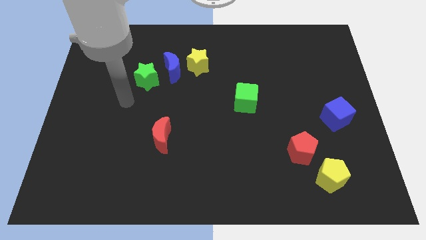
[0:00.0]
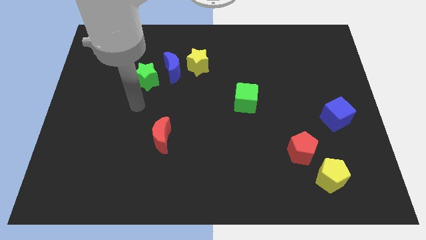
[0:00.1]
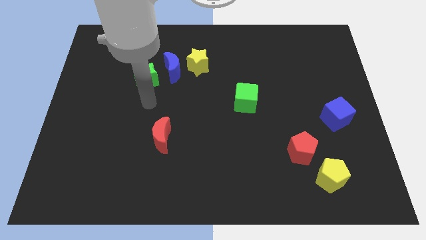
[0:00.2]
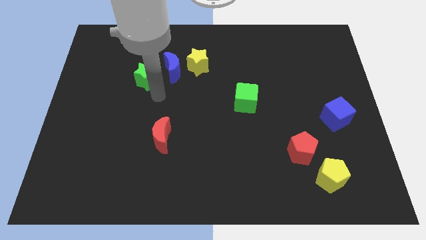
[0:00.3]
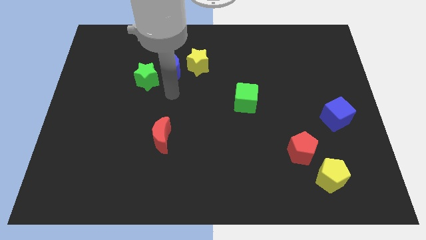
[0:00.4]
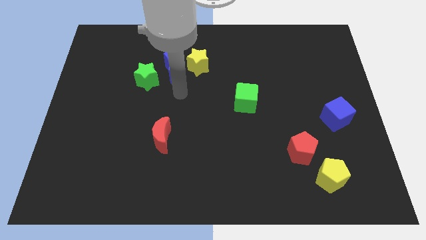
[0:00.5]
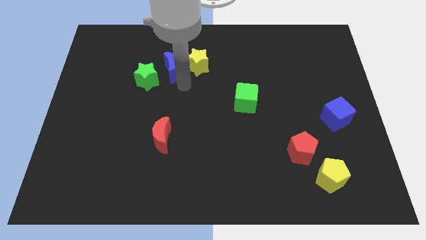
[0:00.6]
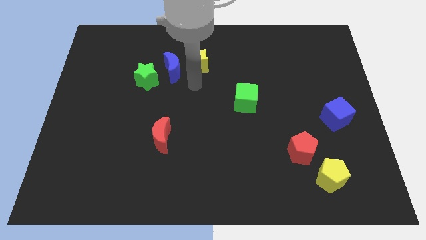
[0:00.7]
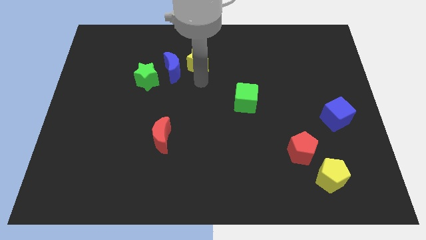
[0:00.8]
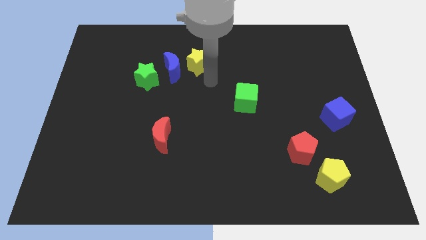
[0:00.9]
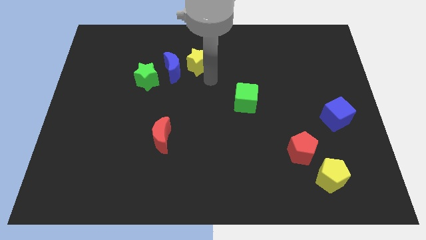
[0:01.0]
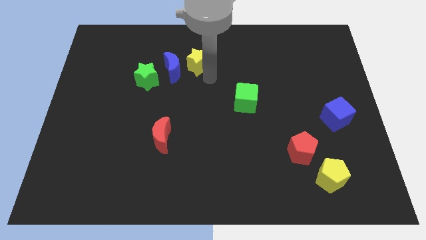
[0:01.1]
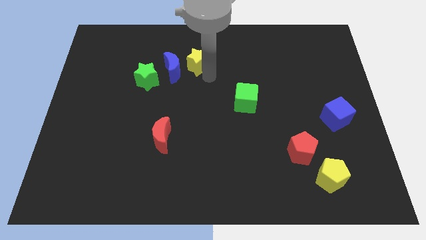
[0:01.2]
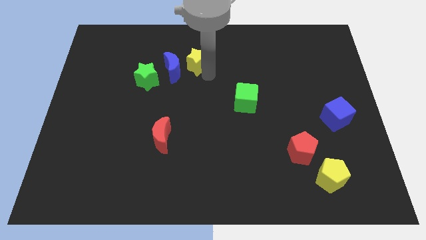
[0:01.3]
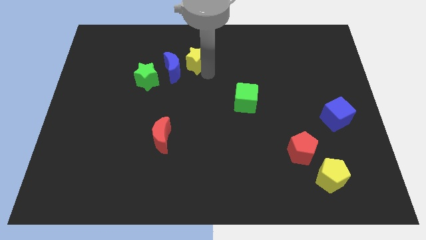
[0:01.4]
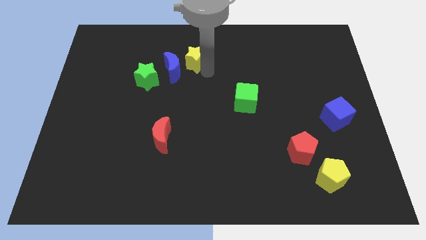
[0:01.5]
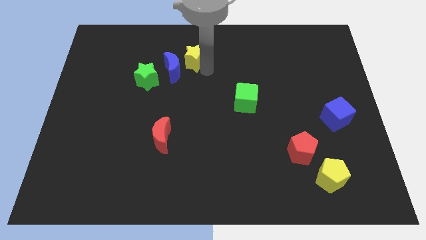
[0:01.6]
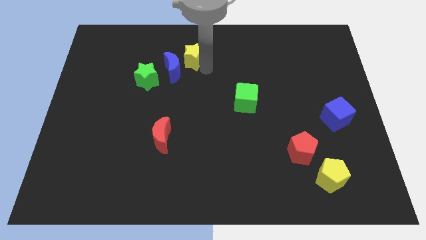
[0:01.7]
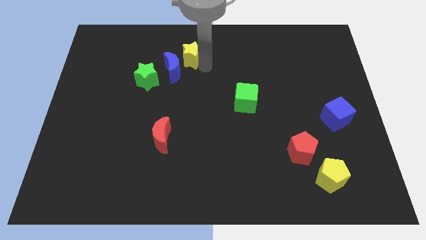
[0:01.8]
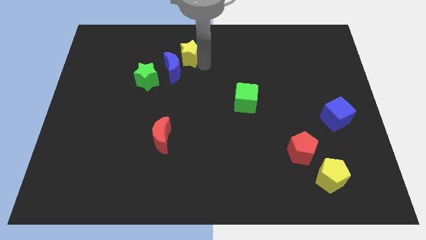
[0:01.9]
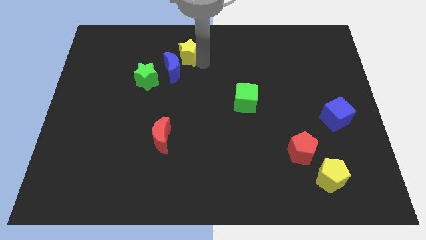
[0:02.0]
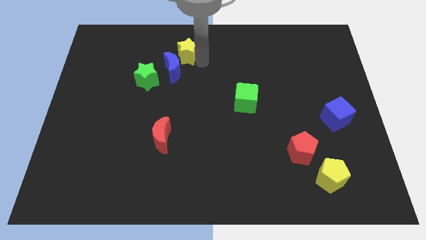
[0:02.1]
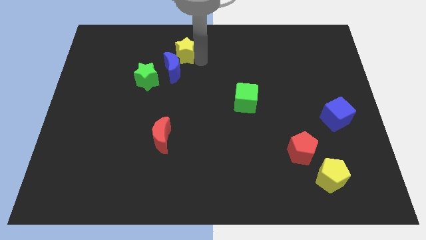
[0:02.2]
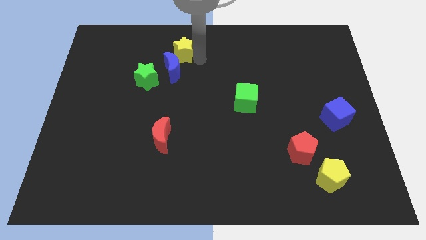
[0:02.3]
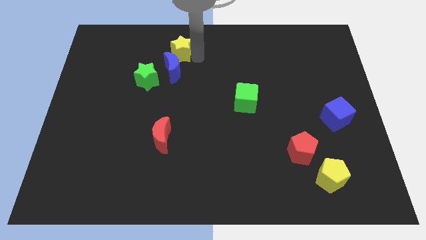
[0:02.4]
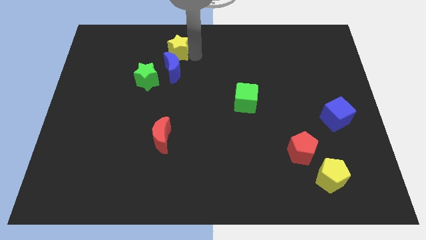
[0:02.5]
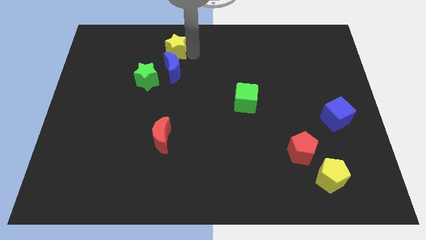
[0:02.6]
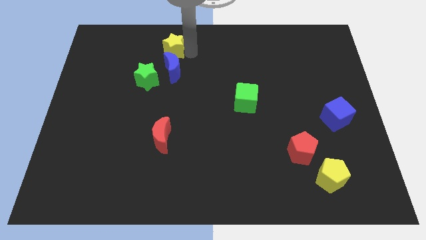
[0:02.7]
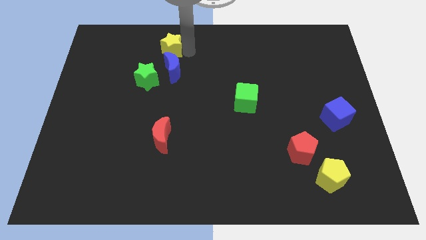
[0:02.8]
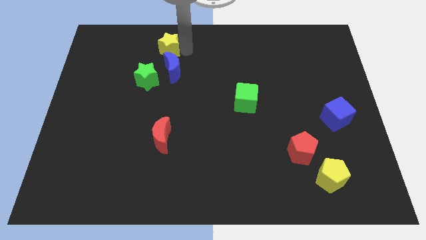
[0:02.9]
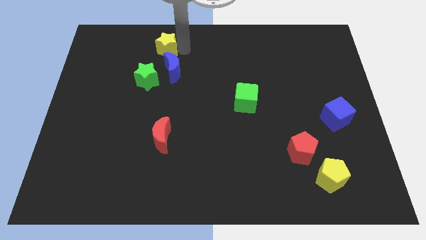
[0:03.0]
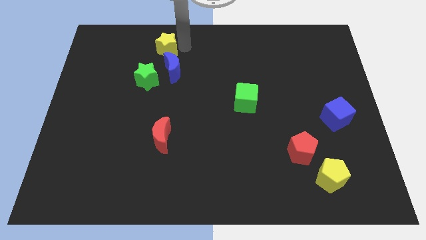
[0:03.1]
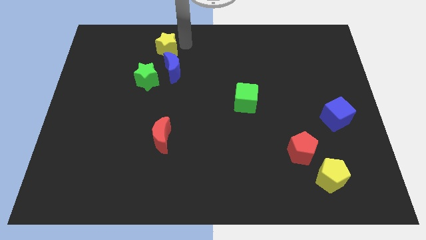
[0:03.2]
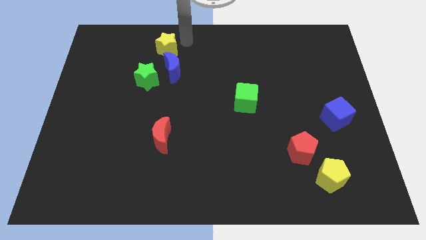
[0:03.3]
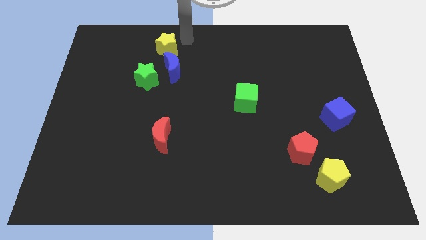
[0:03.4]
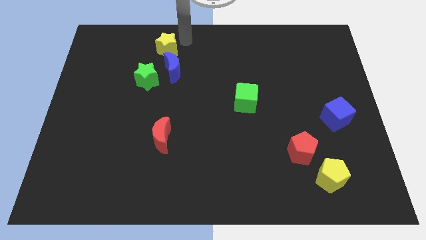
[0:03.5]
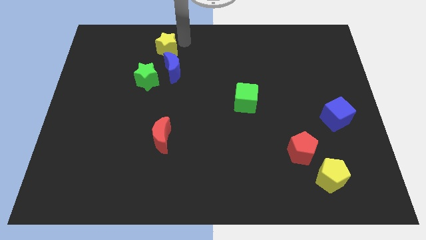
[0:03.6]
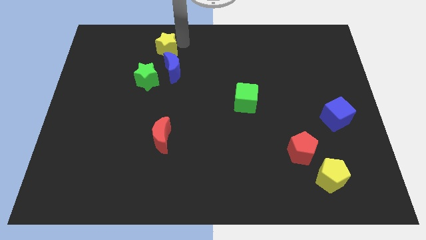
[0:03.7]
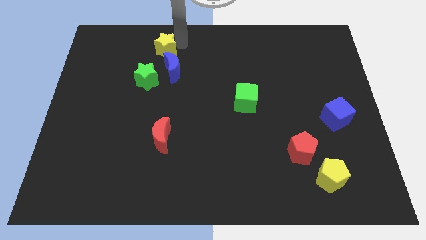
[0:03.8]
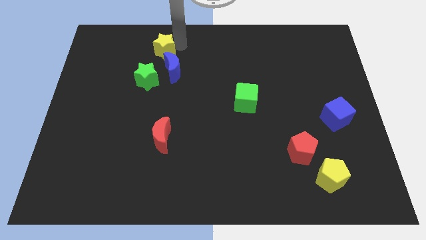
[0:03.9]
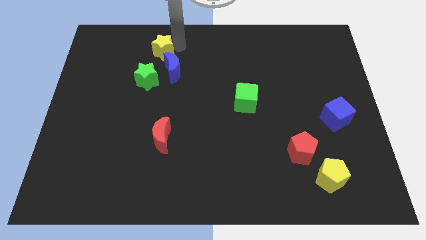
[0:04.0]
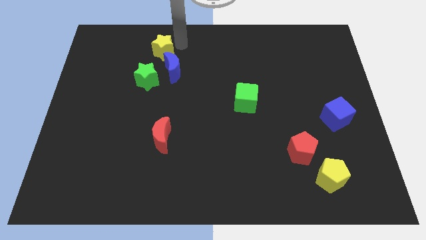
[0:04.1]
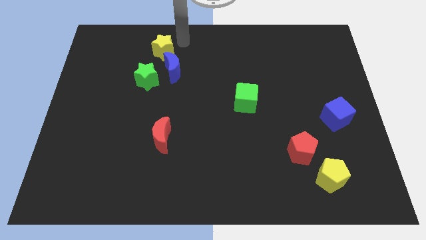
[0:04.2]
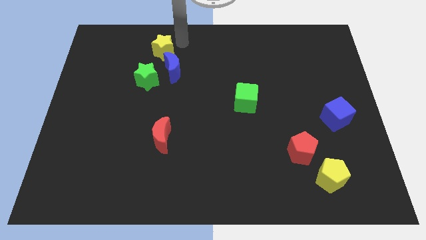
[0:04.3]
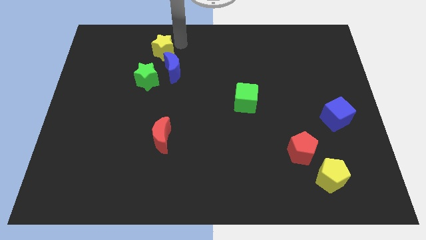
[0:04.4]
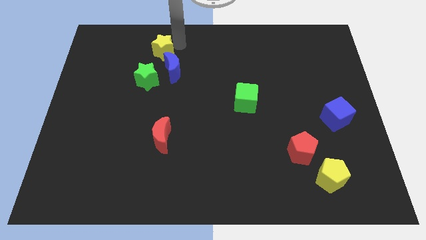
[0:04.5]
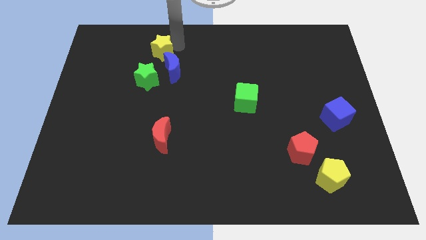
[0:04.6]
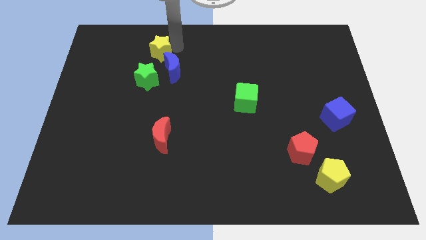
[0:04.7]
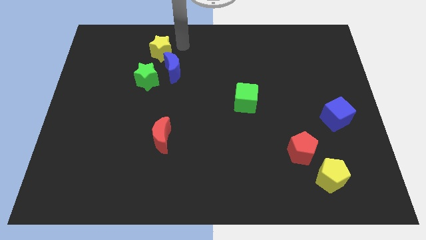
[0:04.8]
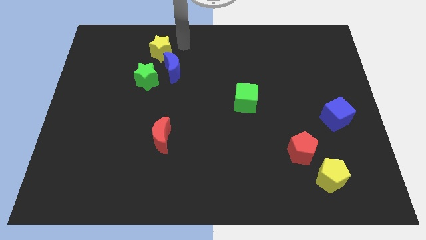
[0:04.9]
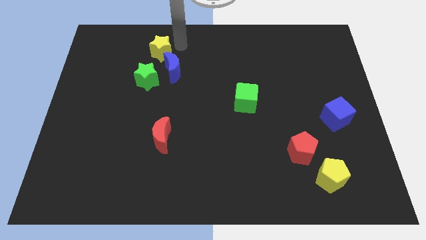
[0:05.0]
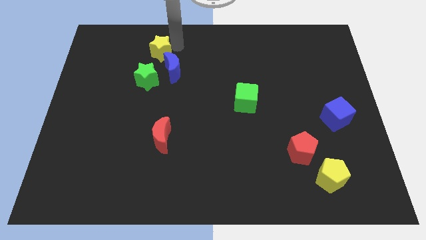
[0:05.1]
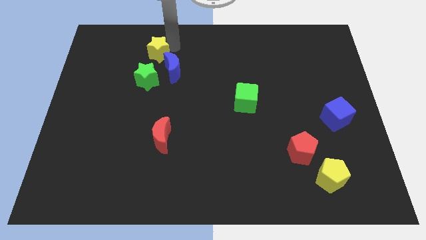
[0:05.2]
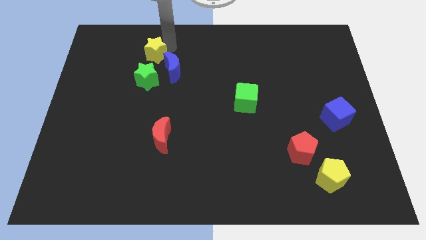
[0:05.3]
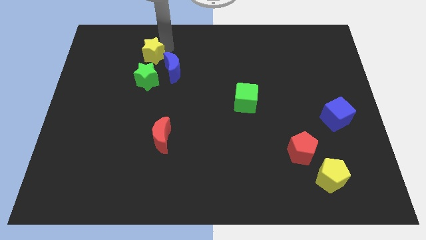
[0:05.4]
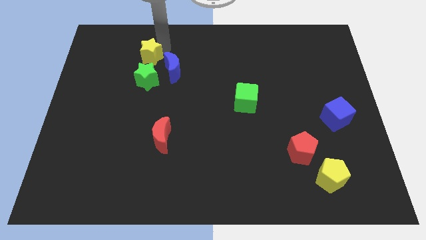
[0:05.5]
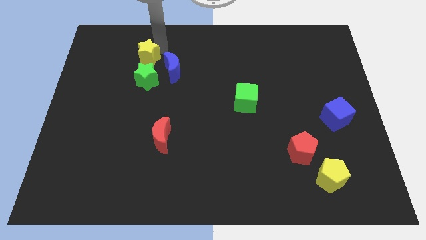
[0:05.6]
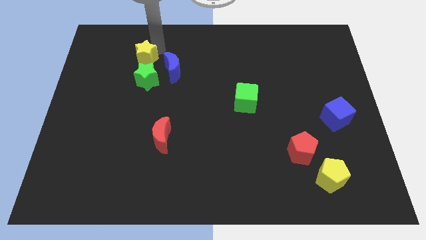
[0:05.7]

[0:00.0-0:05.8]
move the yellow star to the top left of the green star

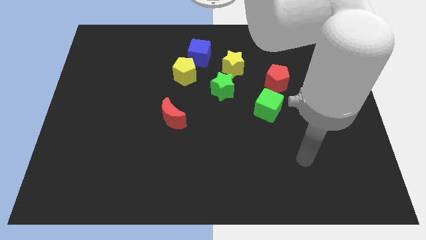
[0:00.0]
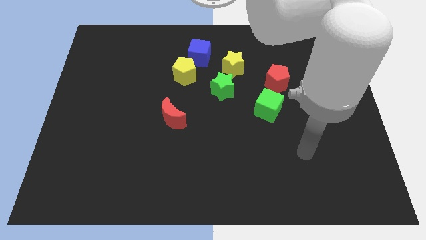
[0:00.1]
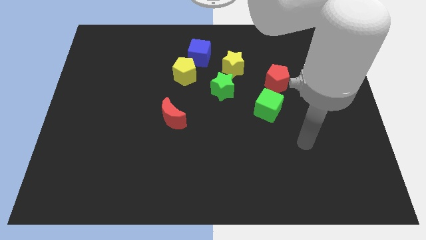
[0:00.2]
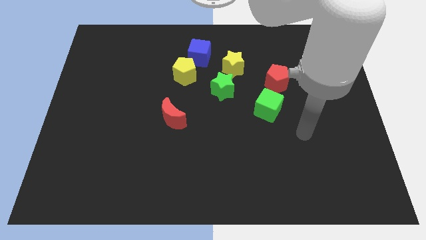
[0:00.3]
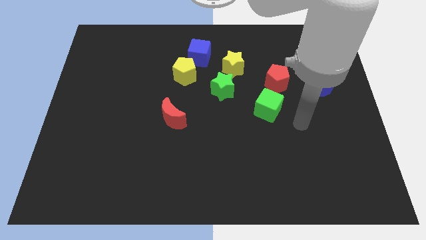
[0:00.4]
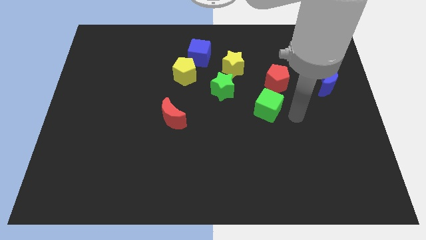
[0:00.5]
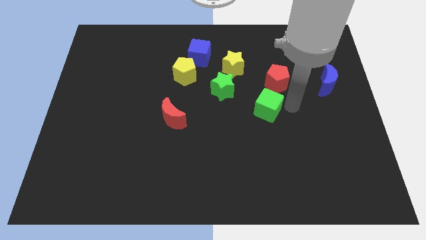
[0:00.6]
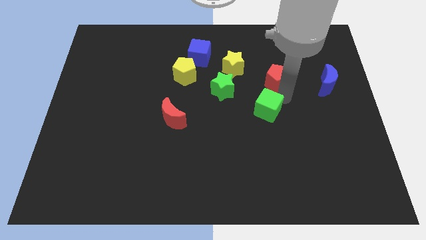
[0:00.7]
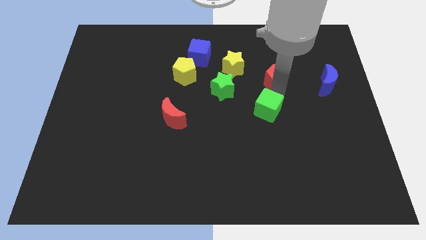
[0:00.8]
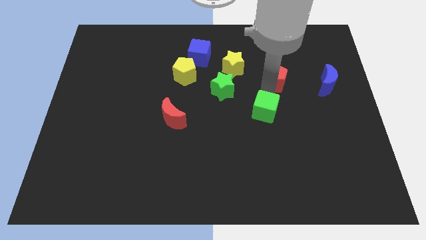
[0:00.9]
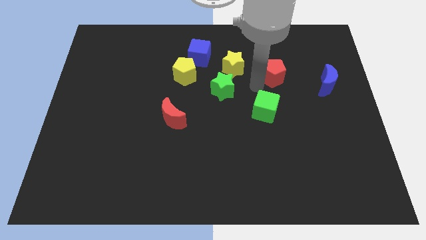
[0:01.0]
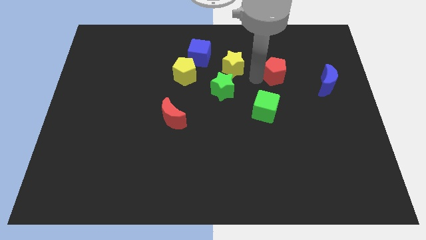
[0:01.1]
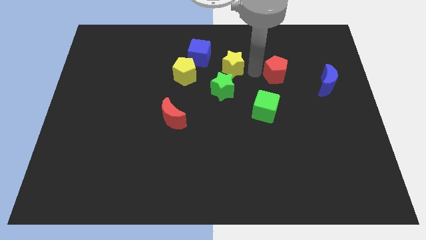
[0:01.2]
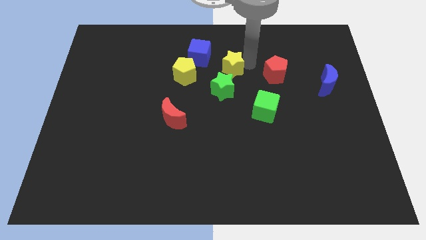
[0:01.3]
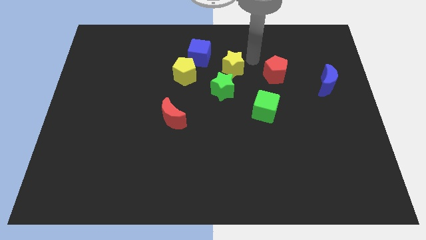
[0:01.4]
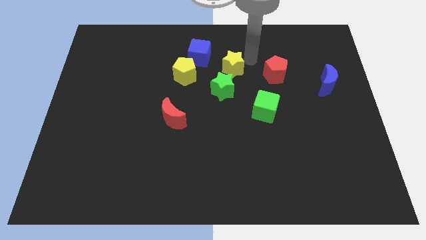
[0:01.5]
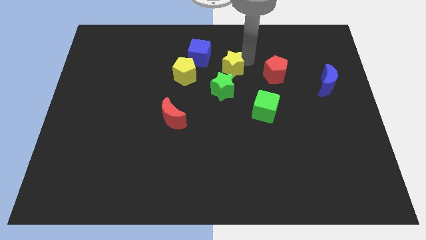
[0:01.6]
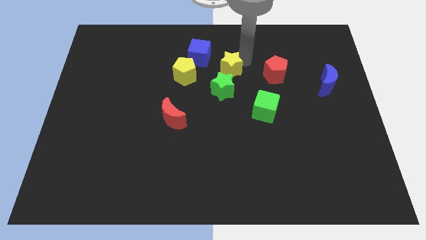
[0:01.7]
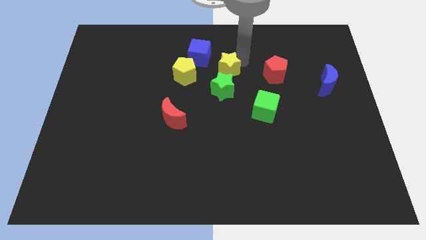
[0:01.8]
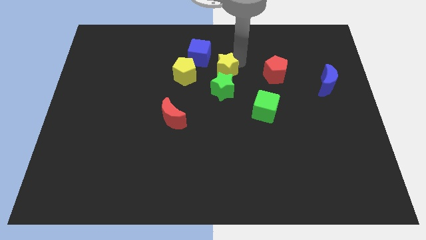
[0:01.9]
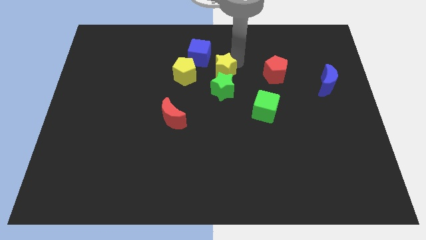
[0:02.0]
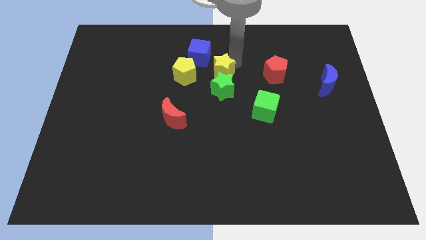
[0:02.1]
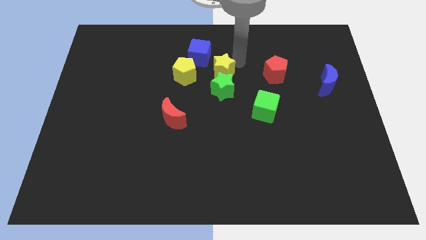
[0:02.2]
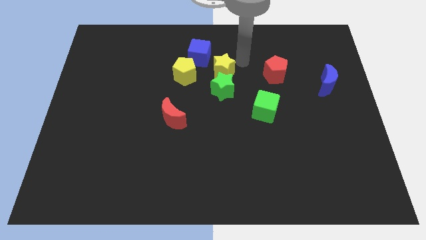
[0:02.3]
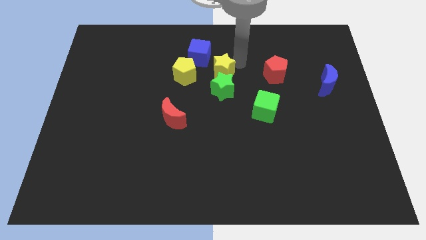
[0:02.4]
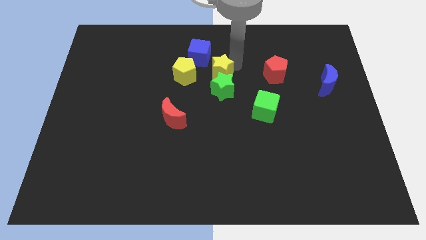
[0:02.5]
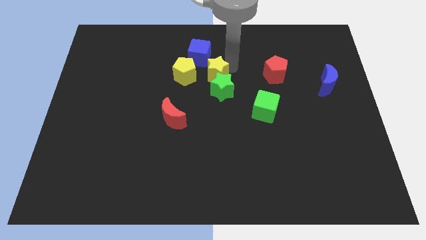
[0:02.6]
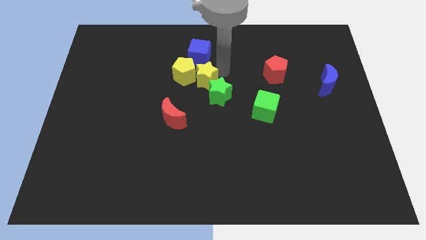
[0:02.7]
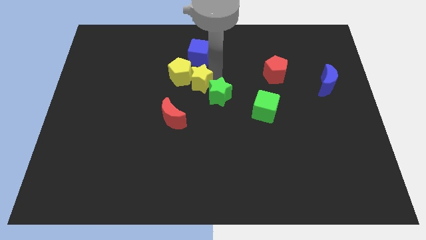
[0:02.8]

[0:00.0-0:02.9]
put the yellow star left of the green star
